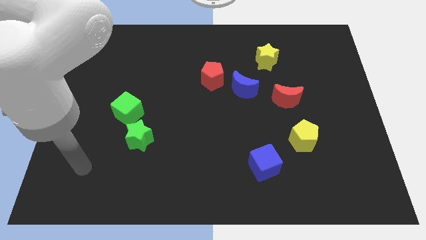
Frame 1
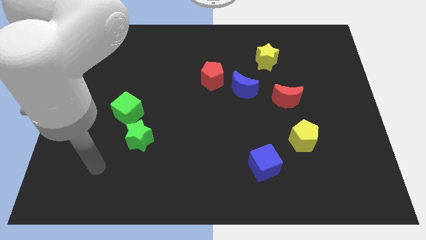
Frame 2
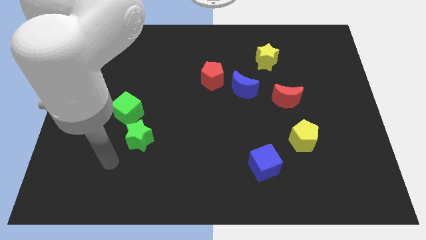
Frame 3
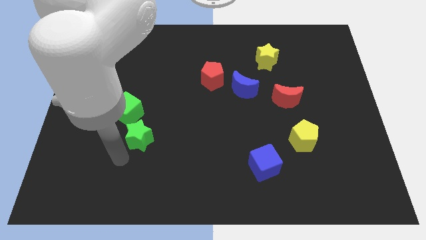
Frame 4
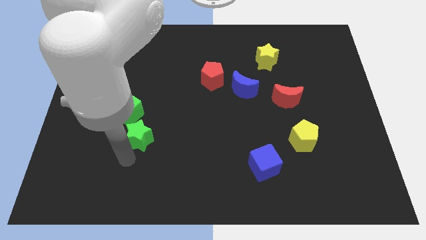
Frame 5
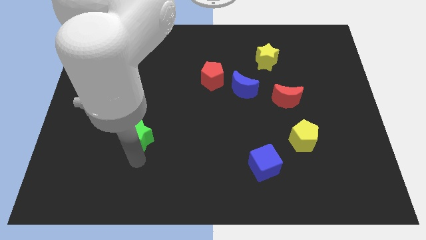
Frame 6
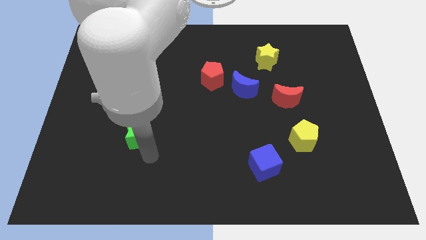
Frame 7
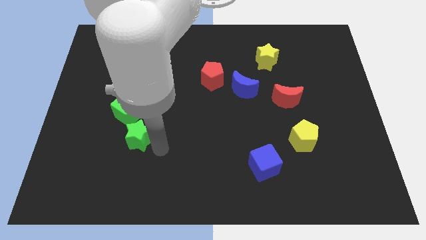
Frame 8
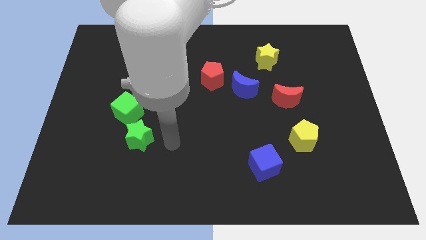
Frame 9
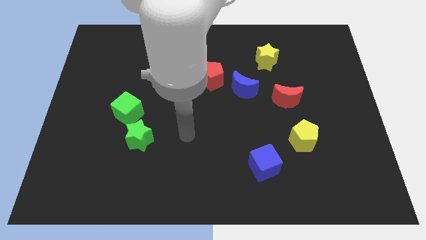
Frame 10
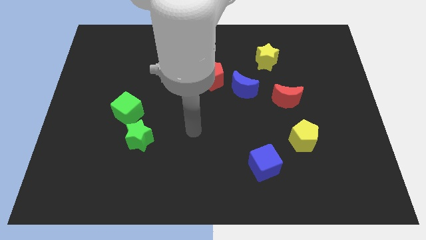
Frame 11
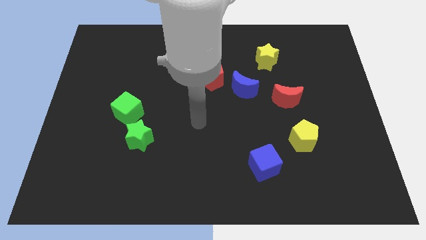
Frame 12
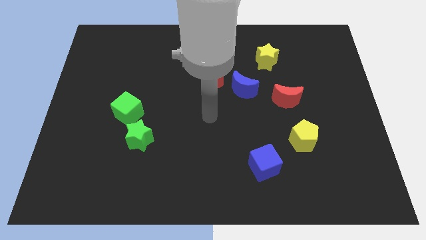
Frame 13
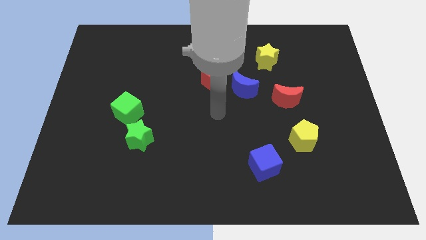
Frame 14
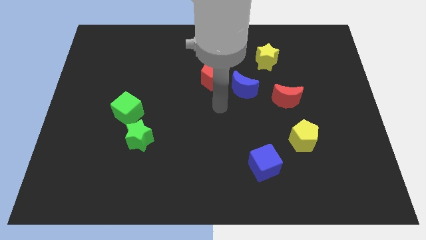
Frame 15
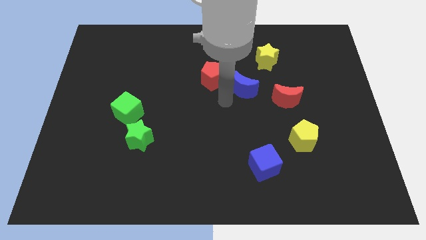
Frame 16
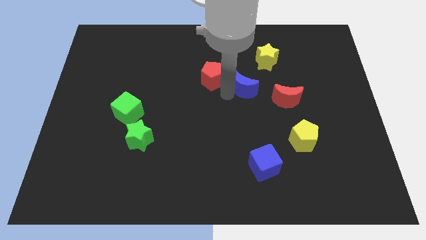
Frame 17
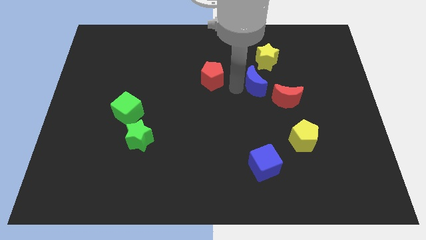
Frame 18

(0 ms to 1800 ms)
pull the red pentagon apart from the blue moon

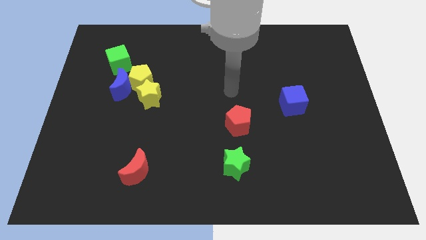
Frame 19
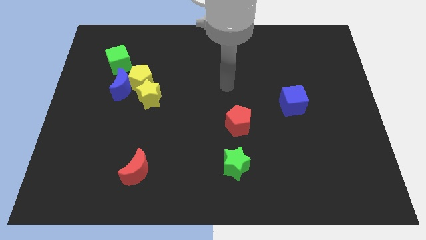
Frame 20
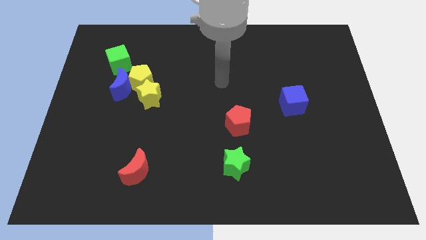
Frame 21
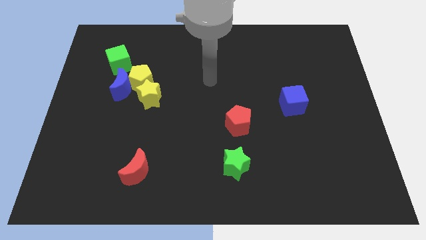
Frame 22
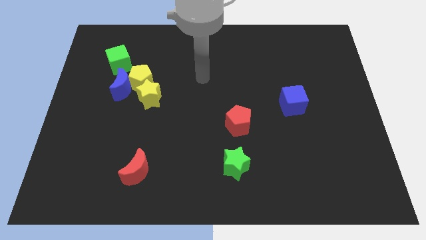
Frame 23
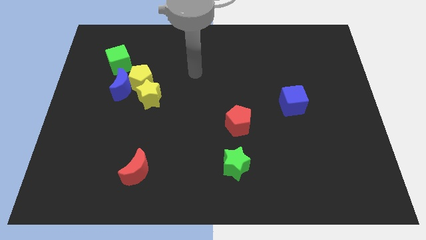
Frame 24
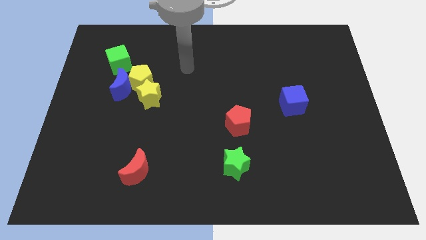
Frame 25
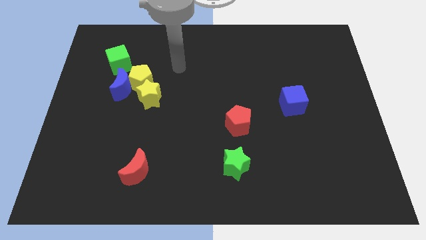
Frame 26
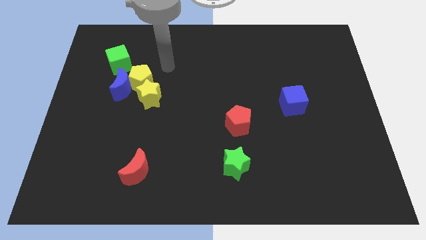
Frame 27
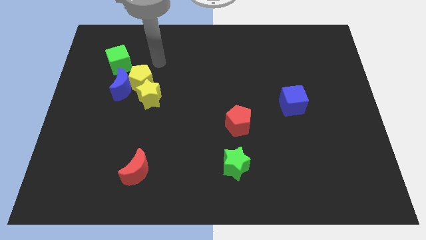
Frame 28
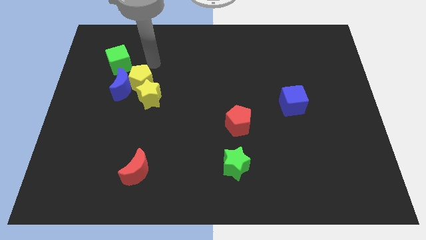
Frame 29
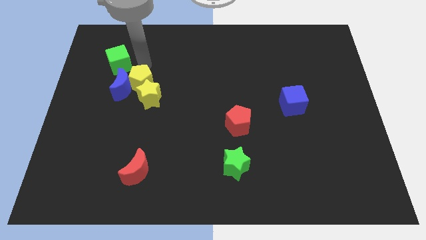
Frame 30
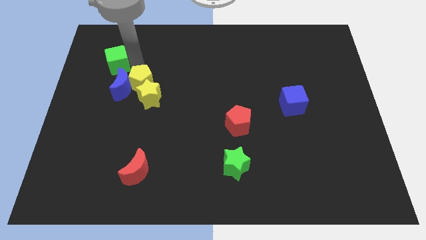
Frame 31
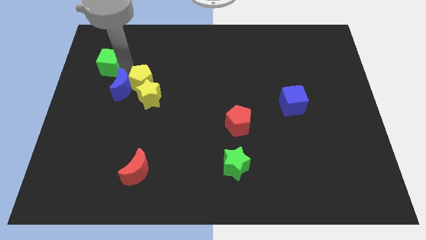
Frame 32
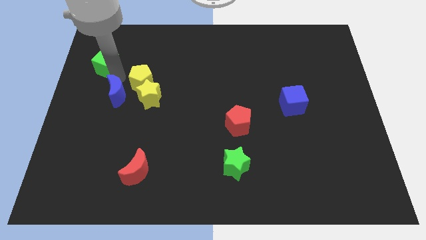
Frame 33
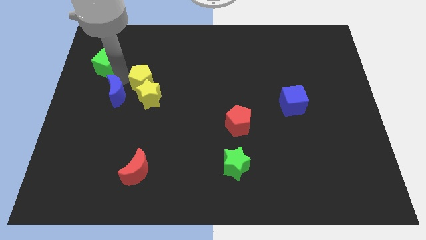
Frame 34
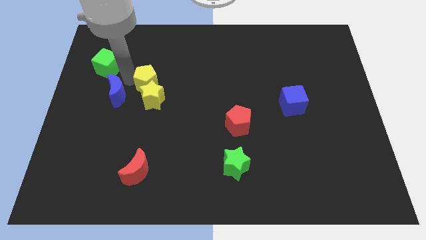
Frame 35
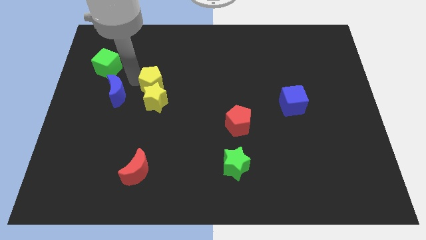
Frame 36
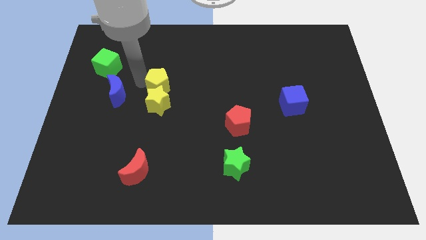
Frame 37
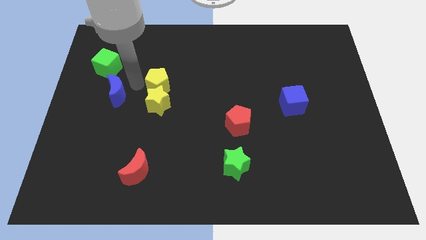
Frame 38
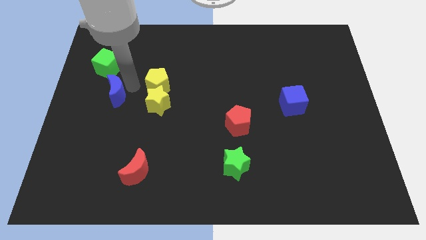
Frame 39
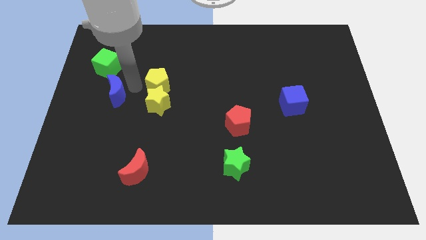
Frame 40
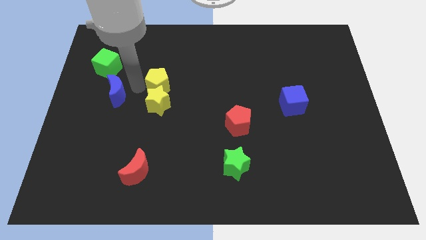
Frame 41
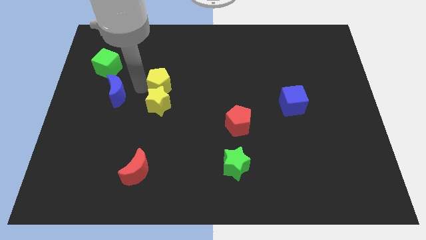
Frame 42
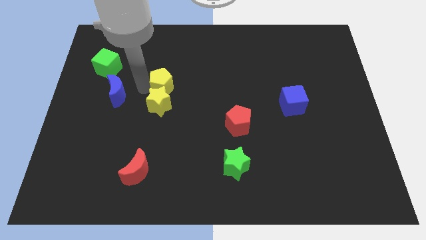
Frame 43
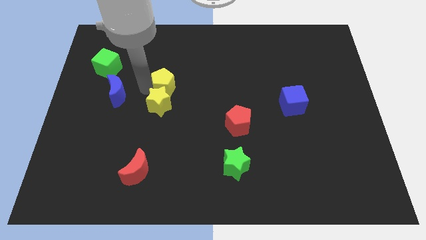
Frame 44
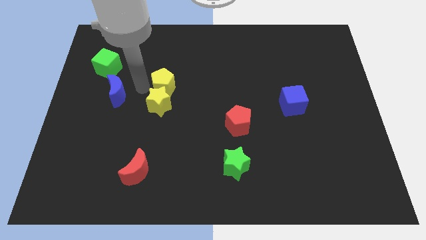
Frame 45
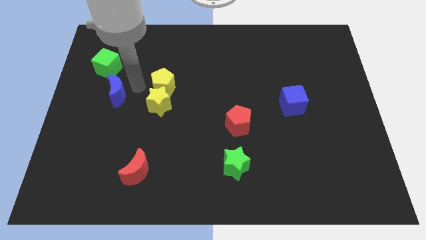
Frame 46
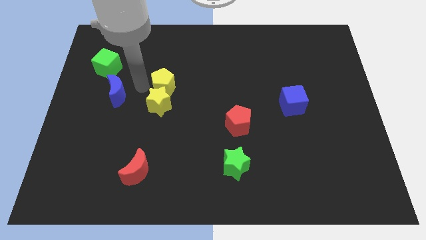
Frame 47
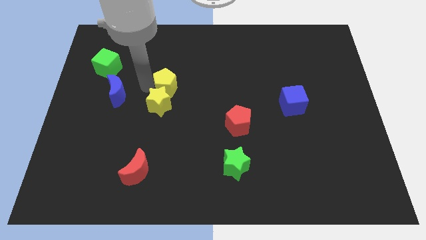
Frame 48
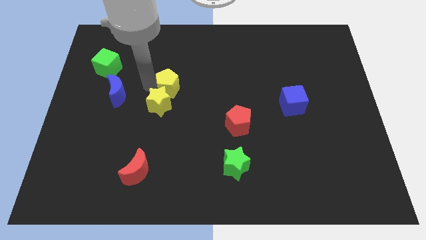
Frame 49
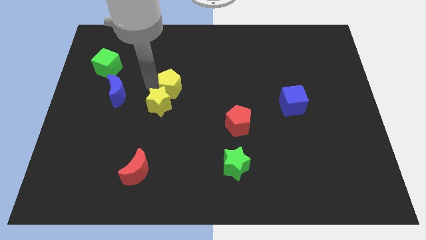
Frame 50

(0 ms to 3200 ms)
separate the yellow pentagon from the blue moon, yellow star, and green cube

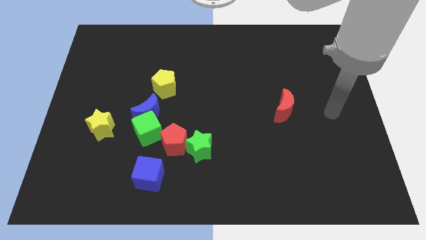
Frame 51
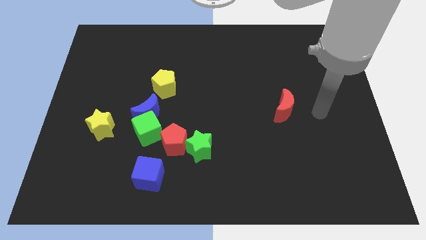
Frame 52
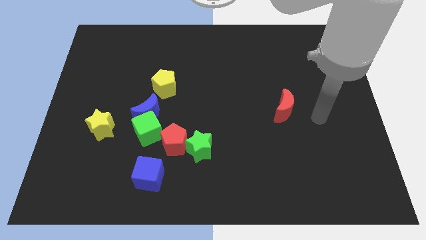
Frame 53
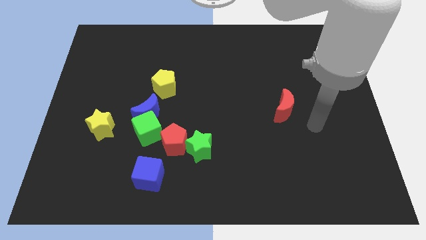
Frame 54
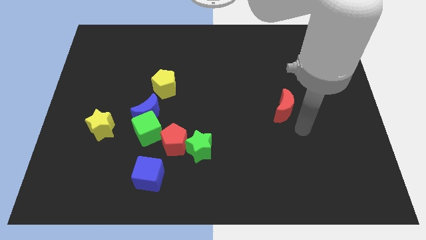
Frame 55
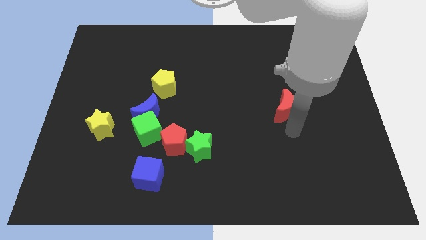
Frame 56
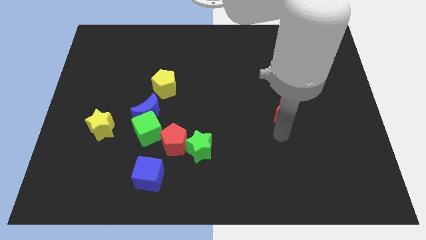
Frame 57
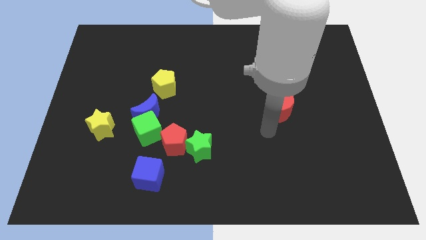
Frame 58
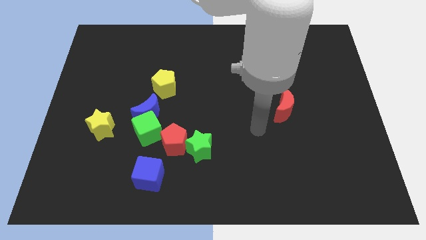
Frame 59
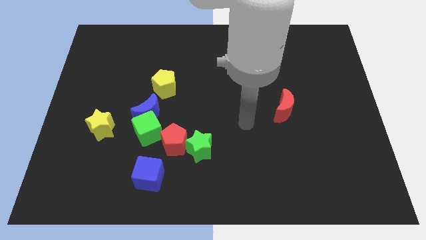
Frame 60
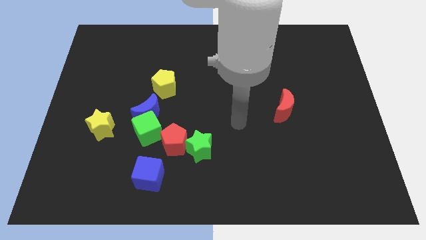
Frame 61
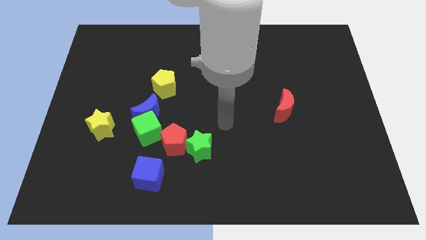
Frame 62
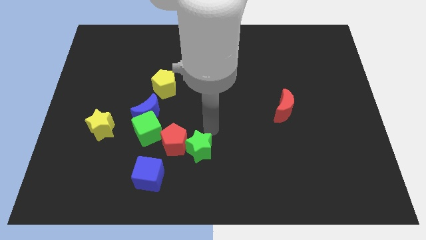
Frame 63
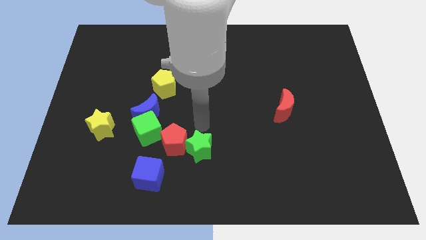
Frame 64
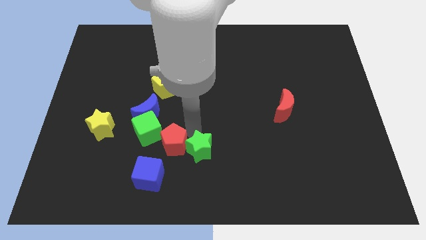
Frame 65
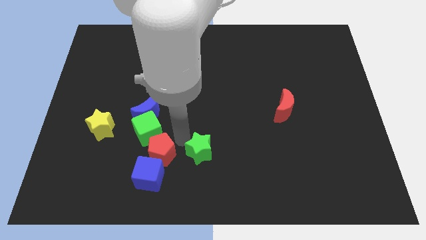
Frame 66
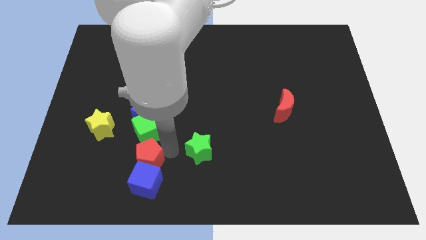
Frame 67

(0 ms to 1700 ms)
move the green star away from the red pentagon

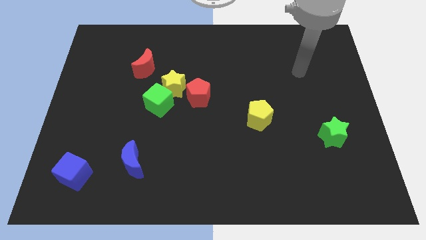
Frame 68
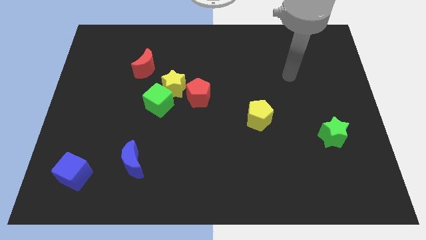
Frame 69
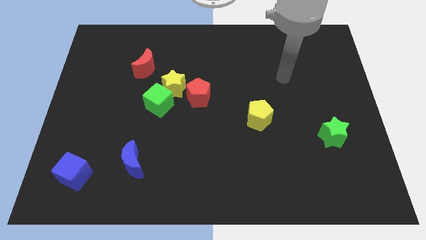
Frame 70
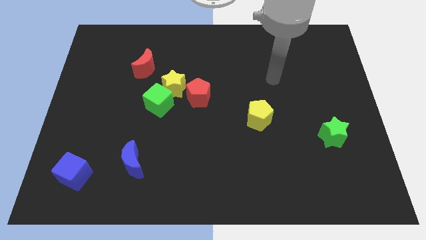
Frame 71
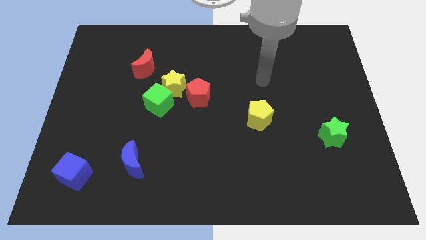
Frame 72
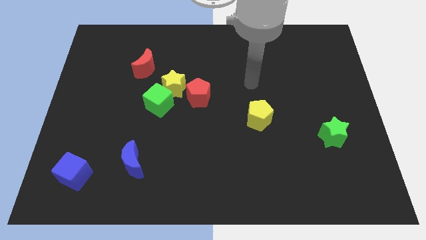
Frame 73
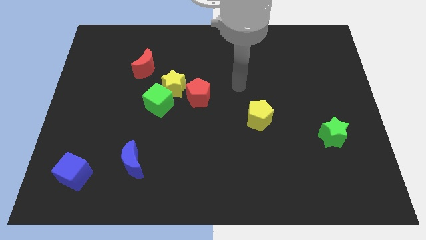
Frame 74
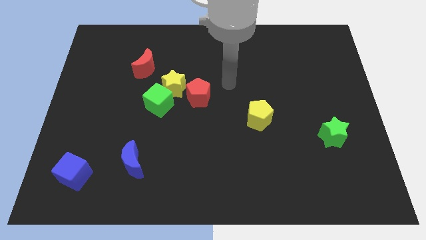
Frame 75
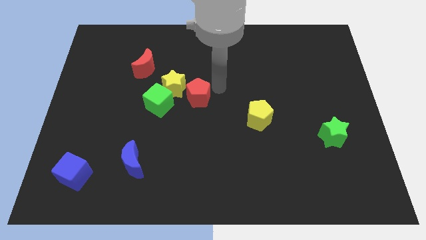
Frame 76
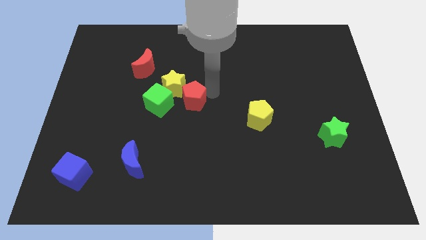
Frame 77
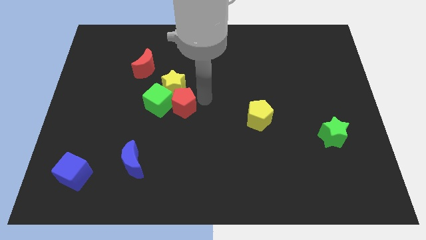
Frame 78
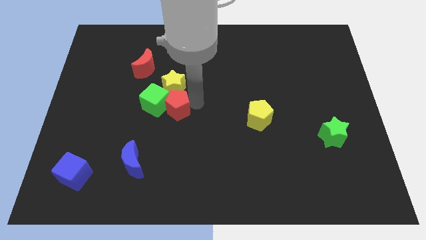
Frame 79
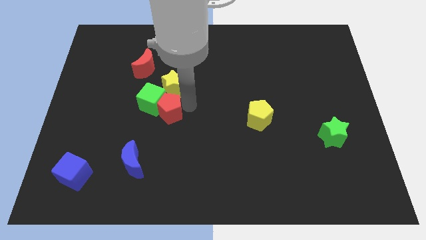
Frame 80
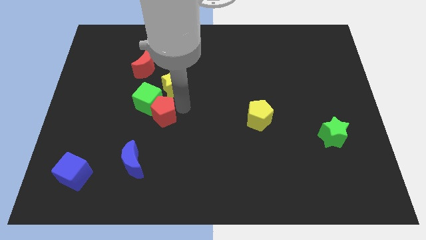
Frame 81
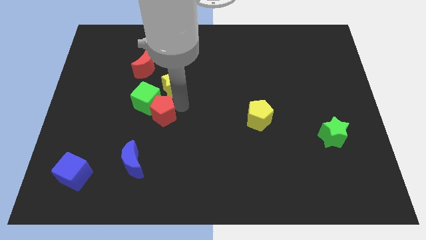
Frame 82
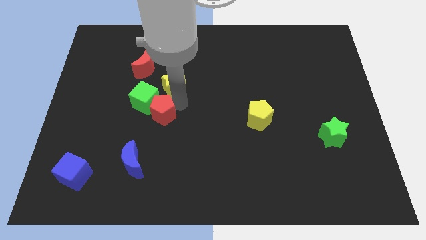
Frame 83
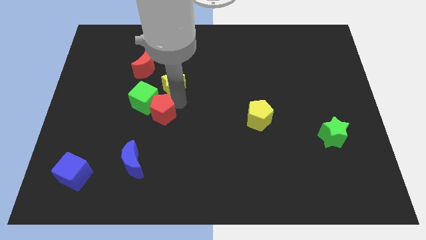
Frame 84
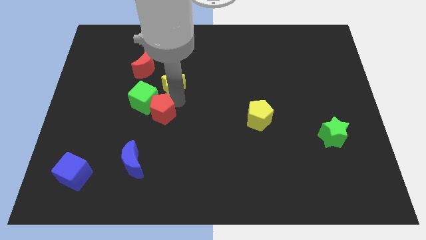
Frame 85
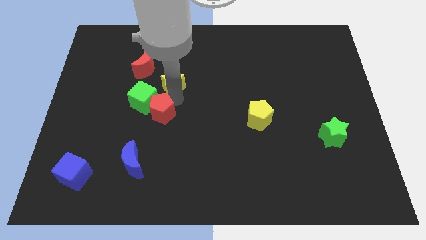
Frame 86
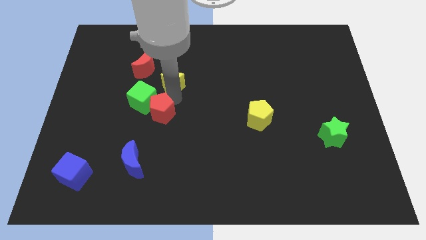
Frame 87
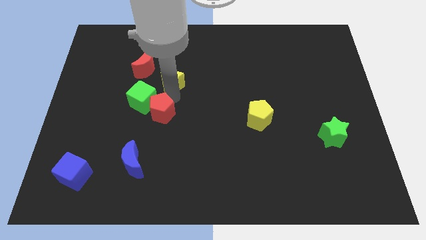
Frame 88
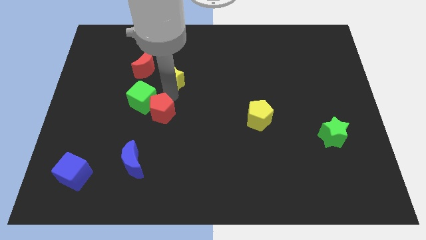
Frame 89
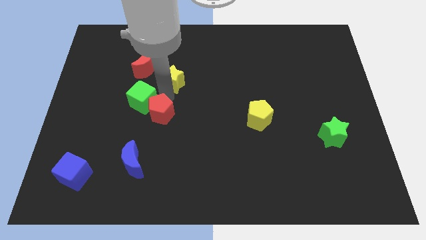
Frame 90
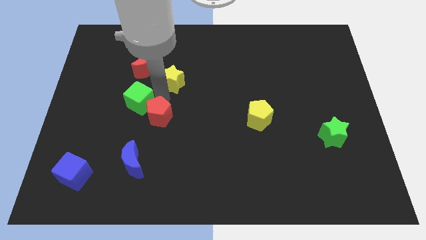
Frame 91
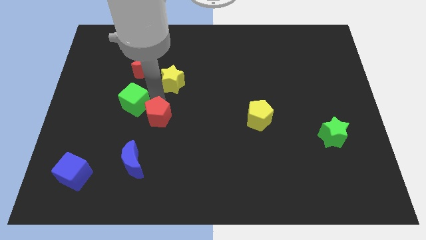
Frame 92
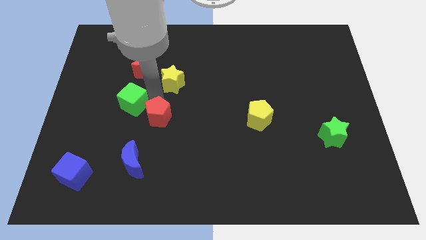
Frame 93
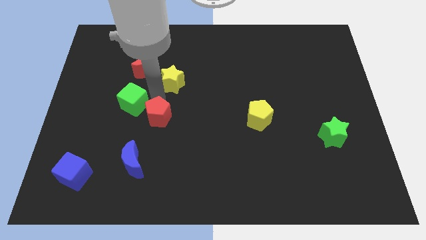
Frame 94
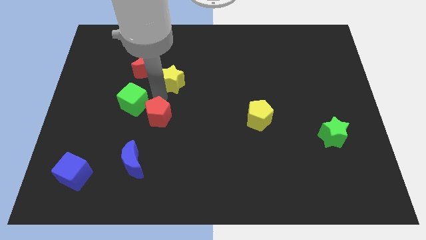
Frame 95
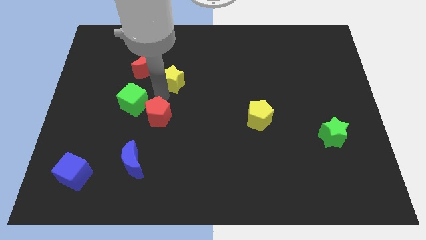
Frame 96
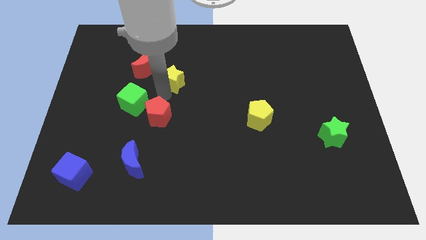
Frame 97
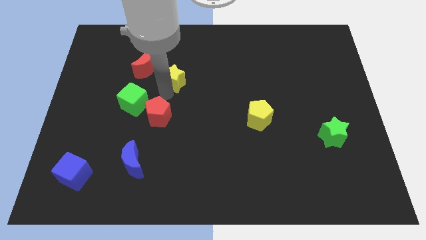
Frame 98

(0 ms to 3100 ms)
move the yellow star away from the green cube and red pentagon
